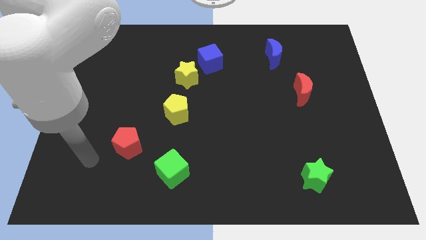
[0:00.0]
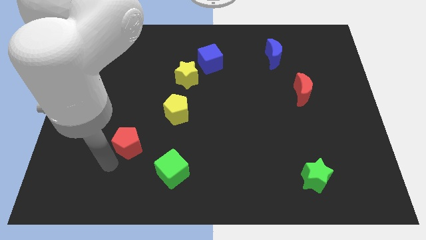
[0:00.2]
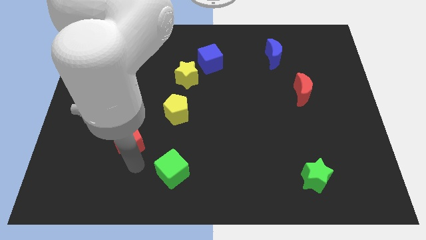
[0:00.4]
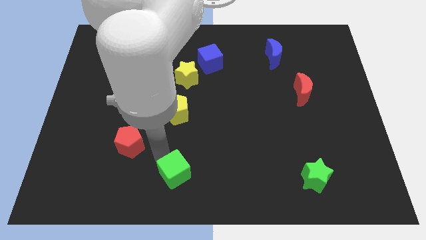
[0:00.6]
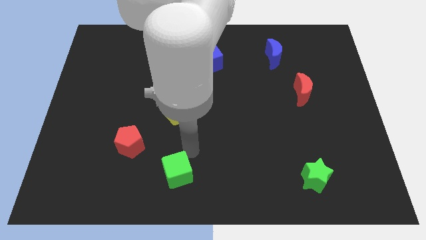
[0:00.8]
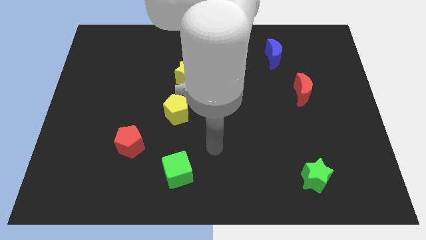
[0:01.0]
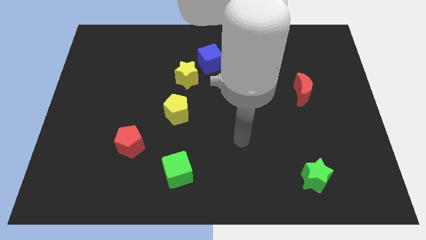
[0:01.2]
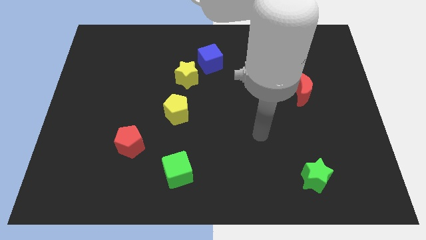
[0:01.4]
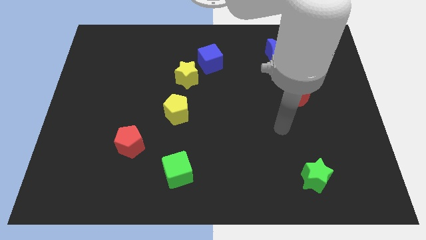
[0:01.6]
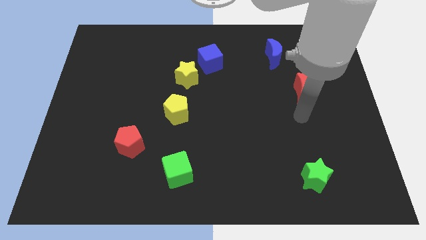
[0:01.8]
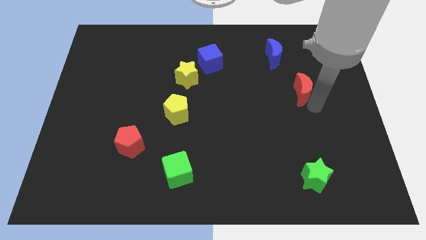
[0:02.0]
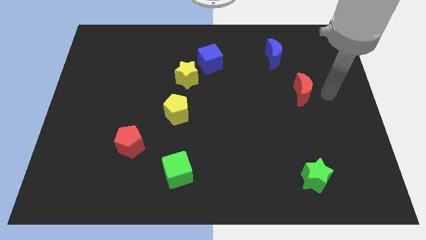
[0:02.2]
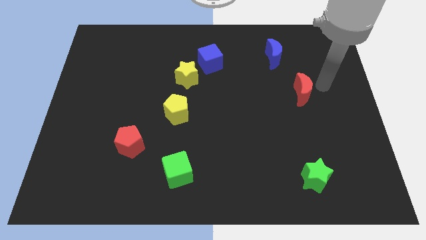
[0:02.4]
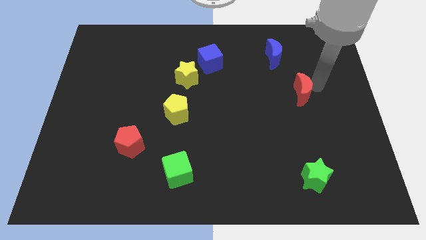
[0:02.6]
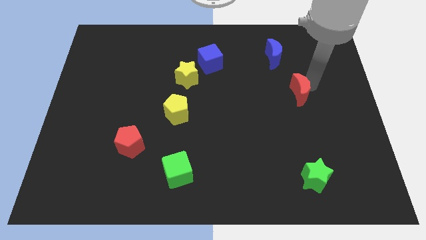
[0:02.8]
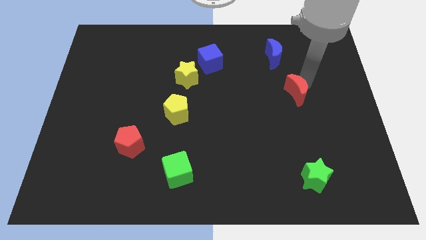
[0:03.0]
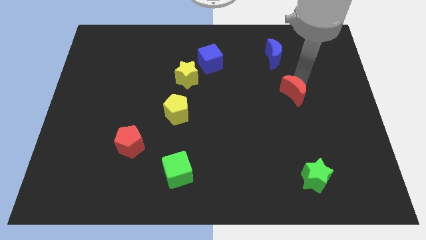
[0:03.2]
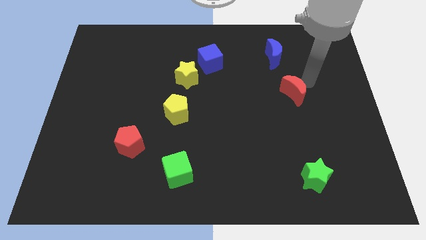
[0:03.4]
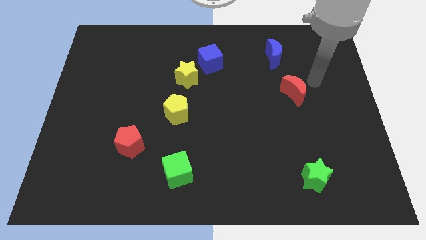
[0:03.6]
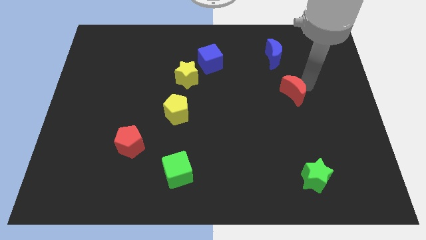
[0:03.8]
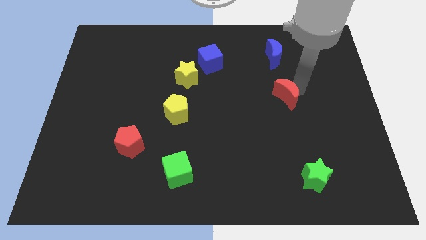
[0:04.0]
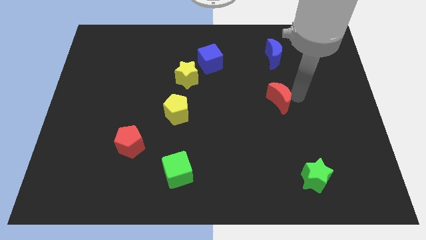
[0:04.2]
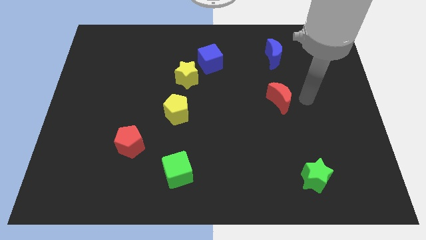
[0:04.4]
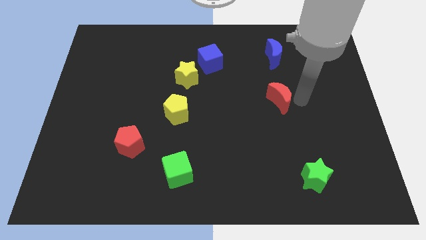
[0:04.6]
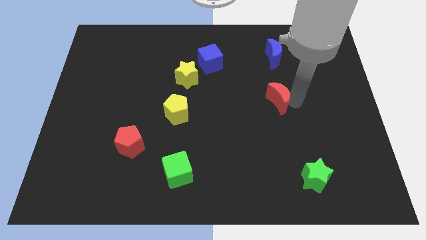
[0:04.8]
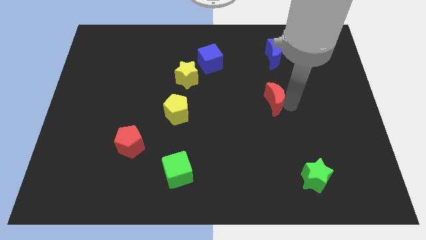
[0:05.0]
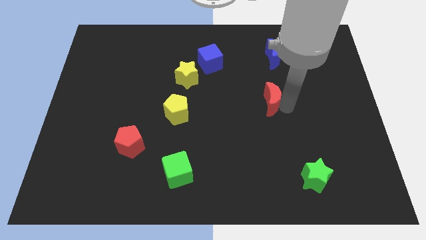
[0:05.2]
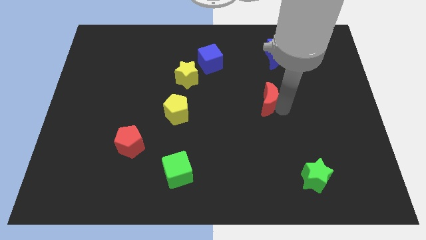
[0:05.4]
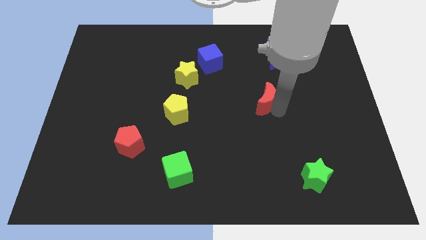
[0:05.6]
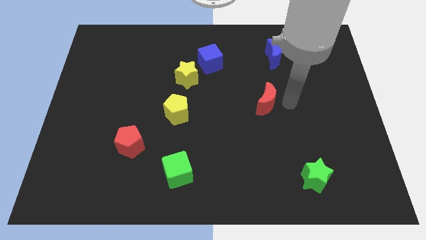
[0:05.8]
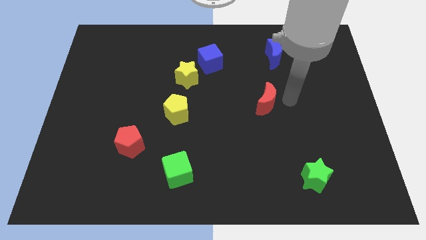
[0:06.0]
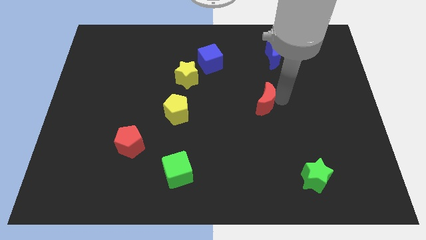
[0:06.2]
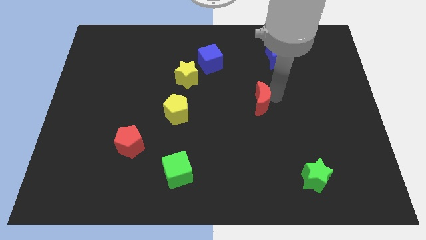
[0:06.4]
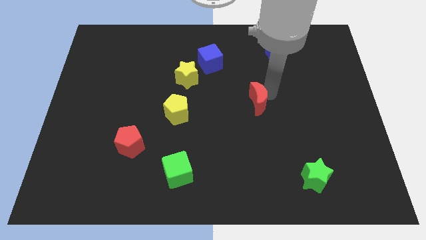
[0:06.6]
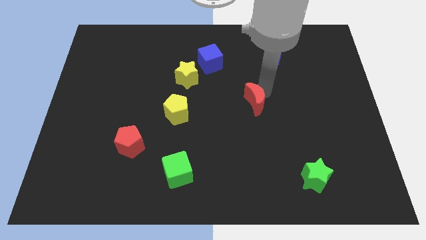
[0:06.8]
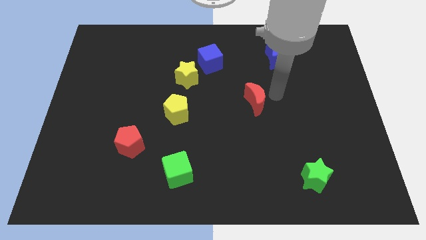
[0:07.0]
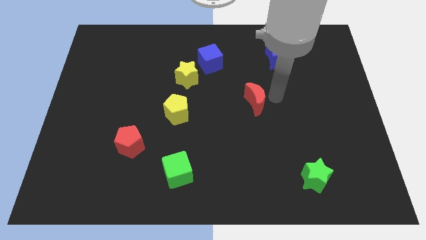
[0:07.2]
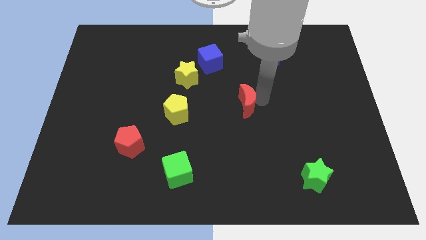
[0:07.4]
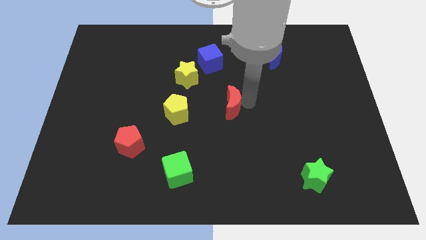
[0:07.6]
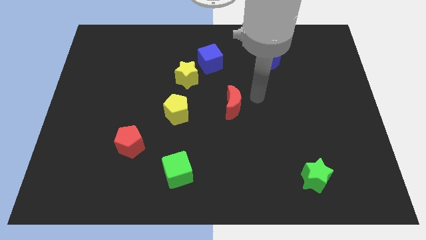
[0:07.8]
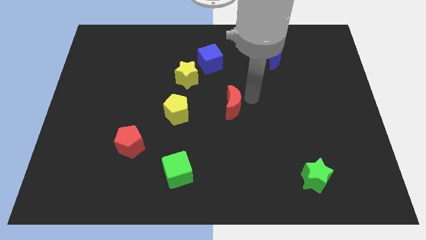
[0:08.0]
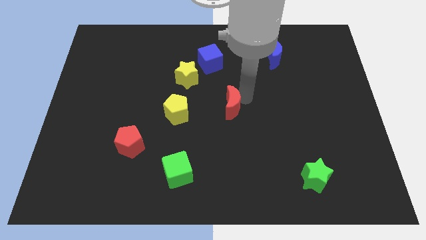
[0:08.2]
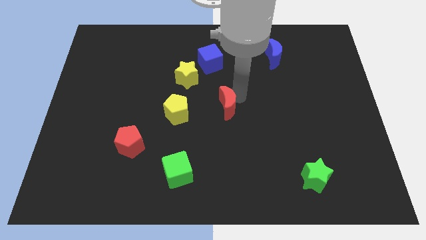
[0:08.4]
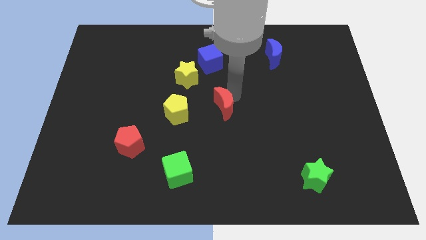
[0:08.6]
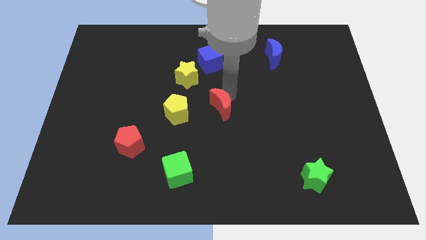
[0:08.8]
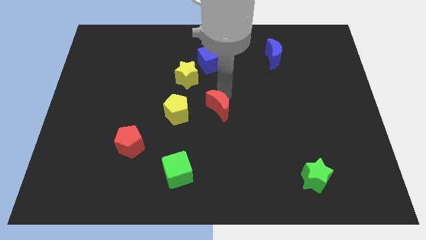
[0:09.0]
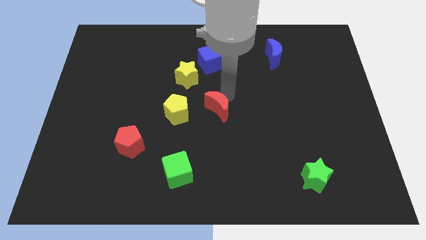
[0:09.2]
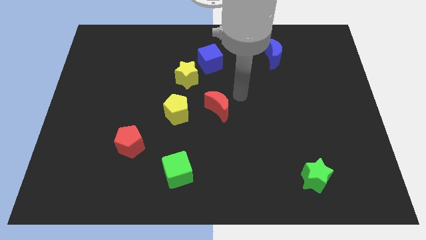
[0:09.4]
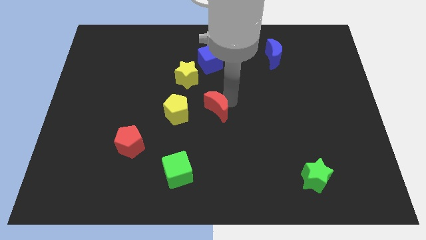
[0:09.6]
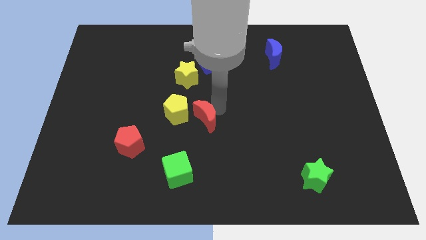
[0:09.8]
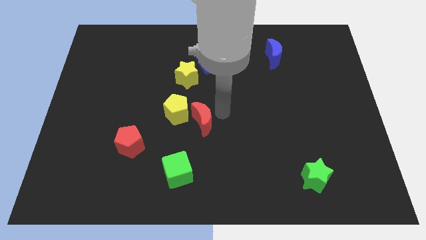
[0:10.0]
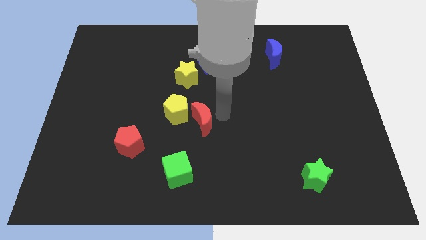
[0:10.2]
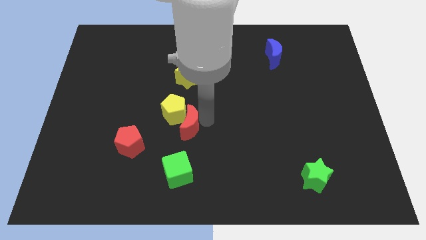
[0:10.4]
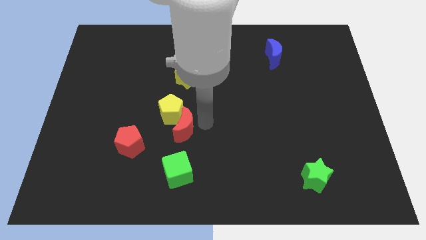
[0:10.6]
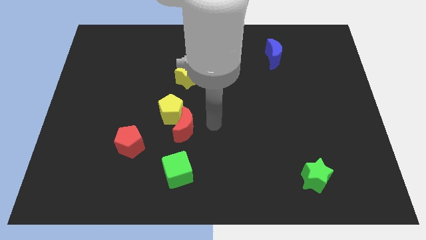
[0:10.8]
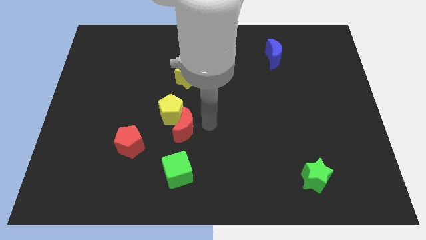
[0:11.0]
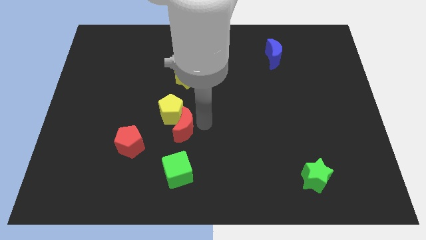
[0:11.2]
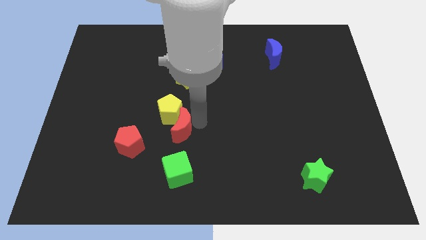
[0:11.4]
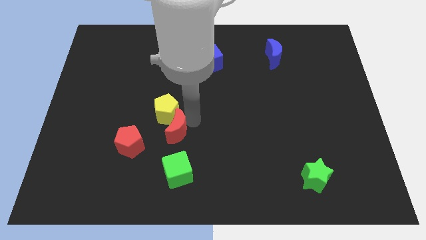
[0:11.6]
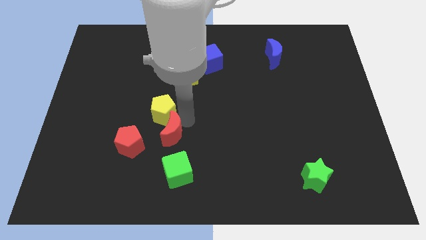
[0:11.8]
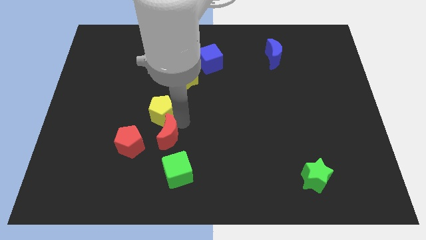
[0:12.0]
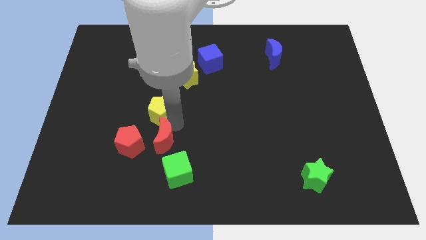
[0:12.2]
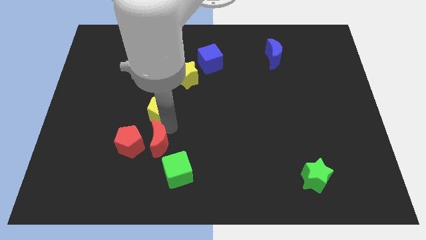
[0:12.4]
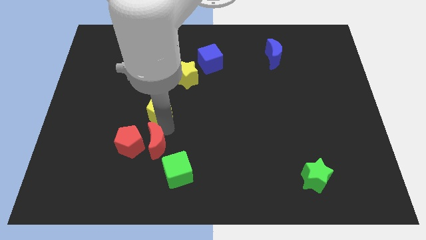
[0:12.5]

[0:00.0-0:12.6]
move the red moon to the red pentagon
